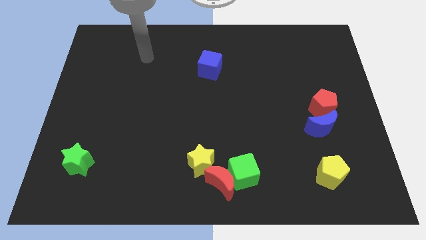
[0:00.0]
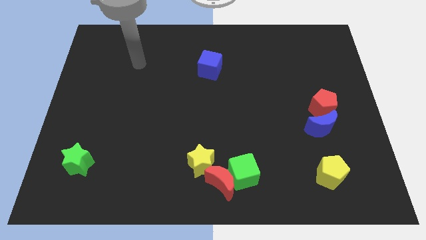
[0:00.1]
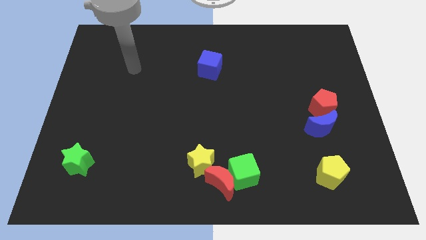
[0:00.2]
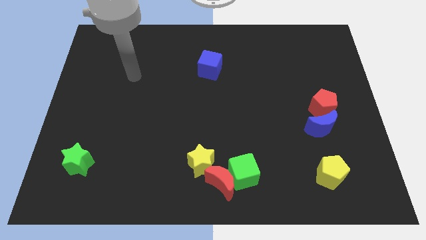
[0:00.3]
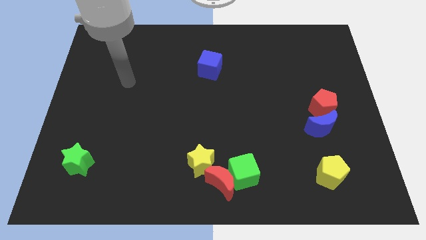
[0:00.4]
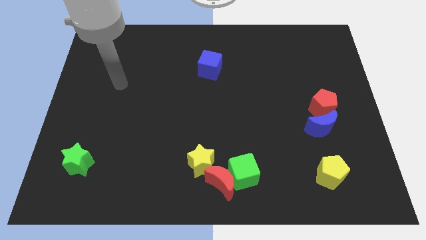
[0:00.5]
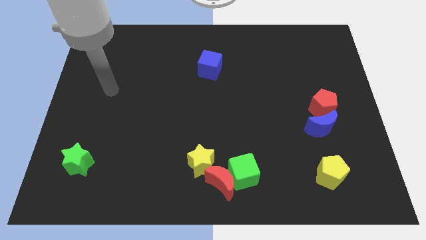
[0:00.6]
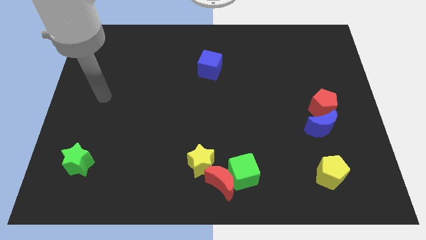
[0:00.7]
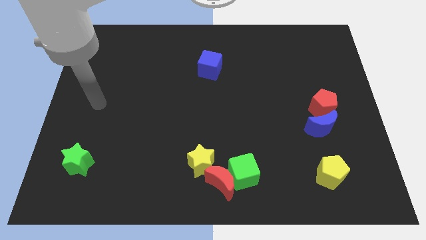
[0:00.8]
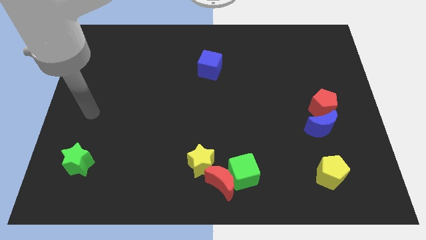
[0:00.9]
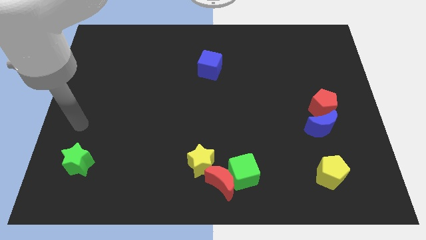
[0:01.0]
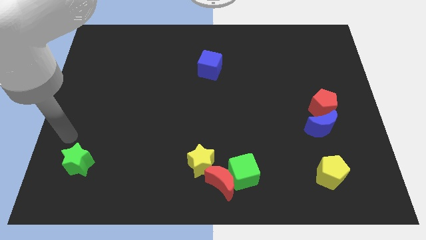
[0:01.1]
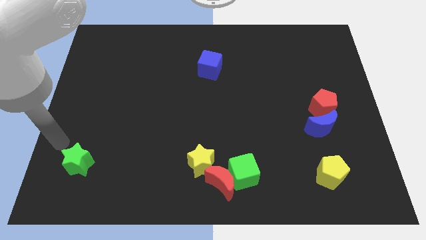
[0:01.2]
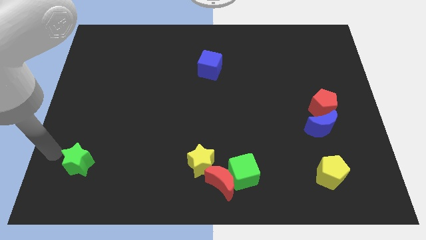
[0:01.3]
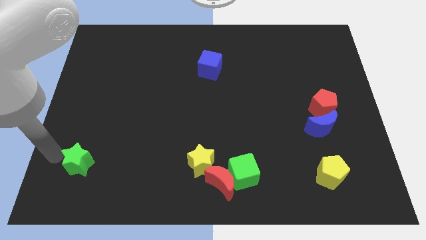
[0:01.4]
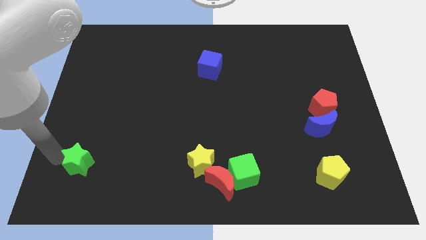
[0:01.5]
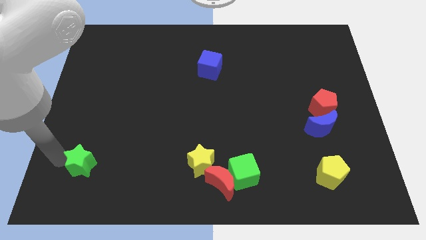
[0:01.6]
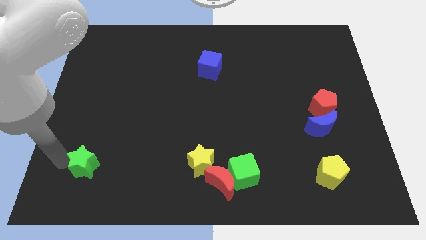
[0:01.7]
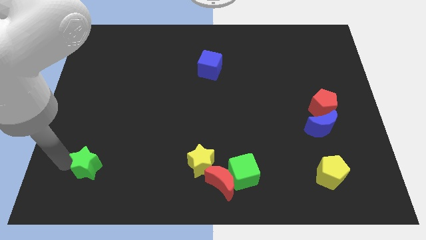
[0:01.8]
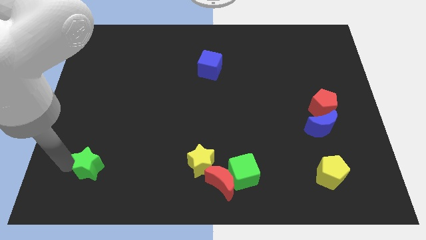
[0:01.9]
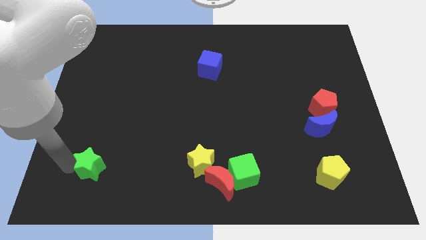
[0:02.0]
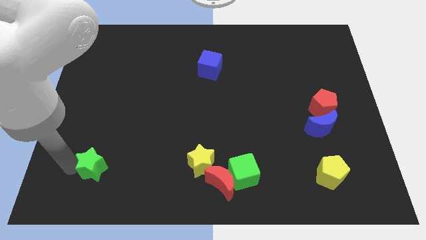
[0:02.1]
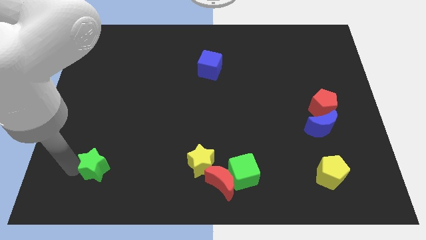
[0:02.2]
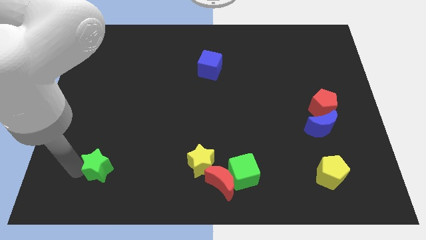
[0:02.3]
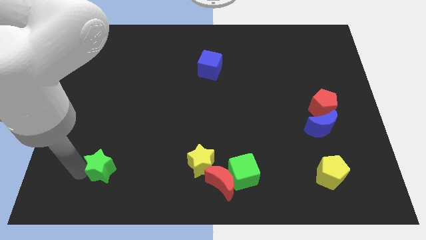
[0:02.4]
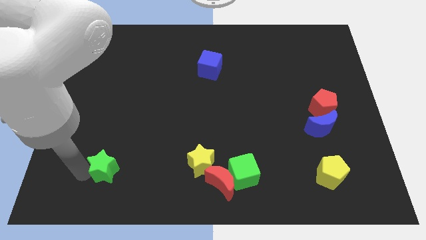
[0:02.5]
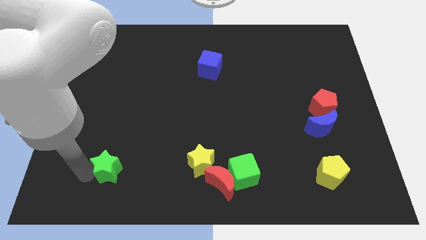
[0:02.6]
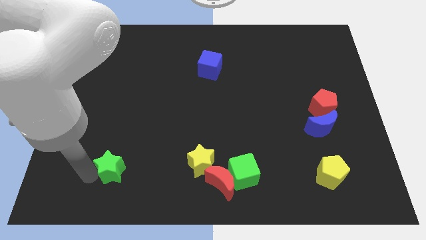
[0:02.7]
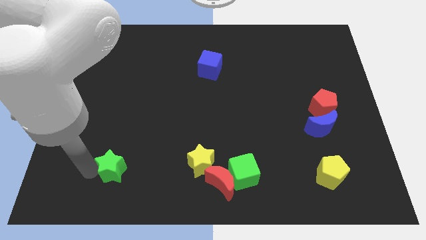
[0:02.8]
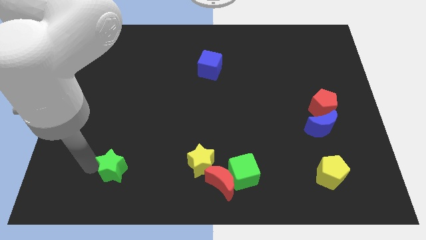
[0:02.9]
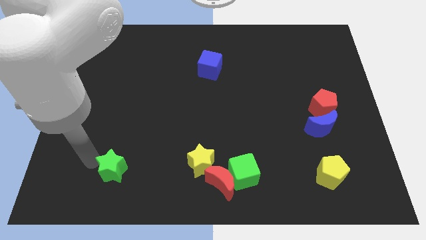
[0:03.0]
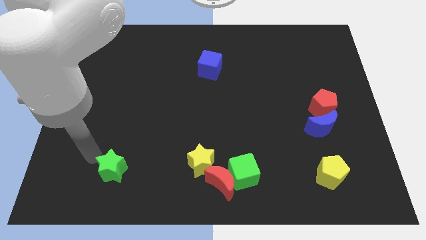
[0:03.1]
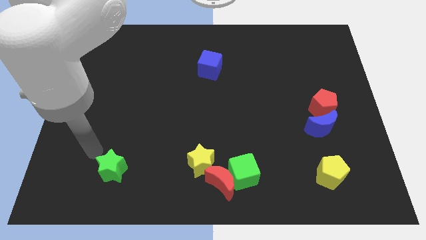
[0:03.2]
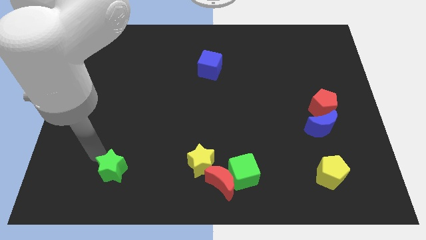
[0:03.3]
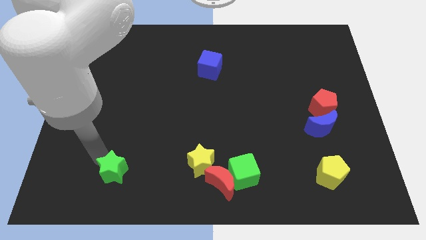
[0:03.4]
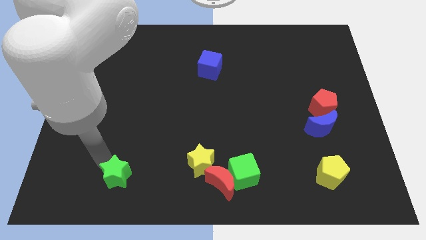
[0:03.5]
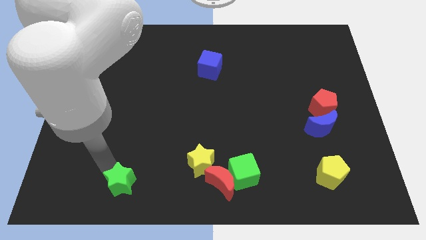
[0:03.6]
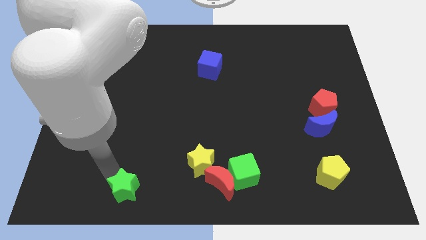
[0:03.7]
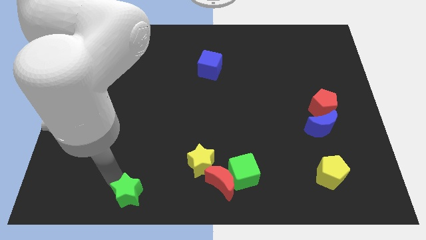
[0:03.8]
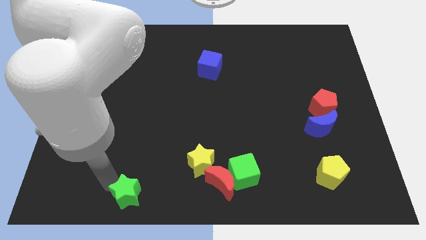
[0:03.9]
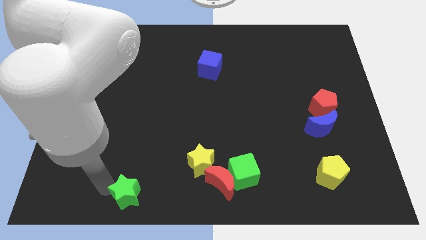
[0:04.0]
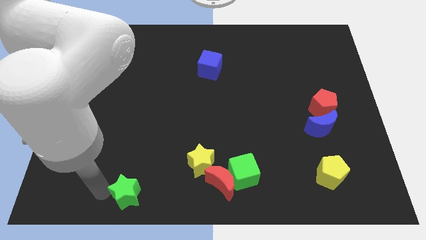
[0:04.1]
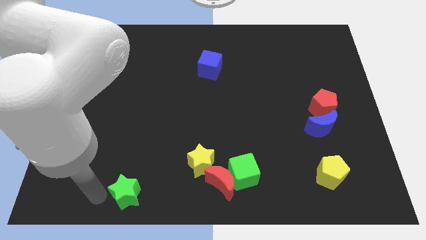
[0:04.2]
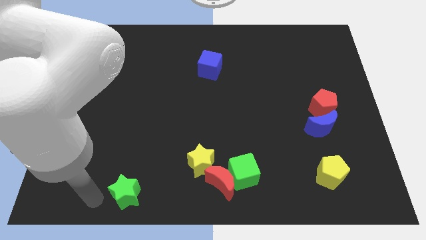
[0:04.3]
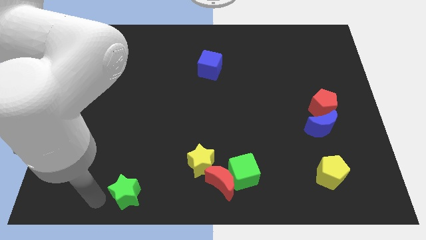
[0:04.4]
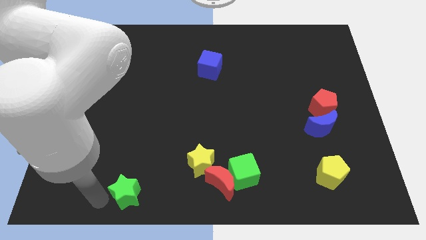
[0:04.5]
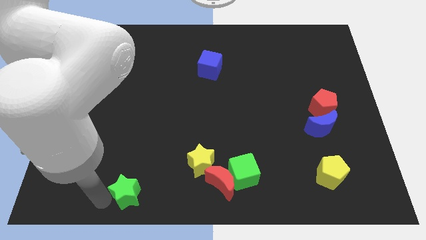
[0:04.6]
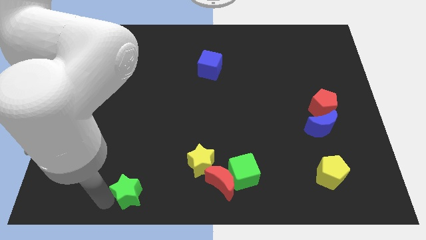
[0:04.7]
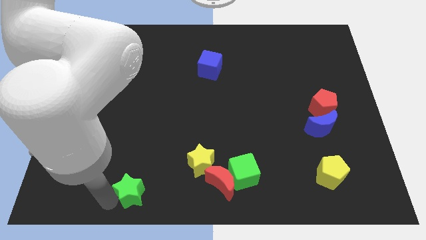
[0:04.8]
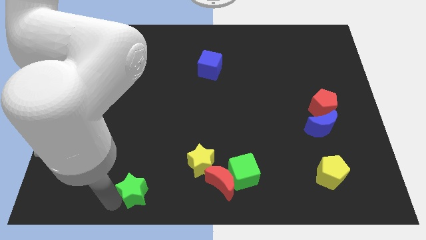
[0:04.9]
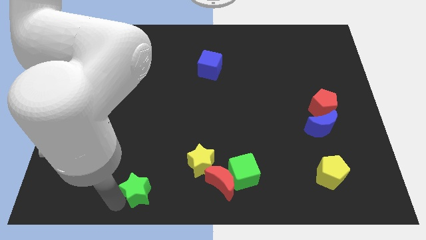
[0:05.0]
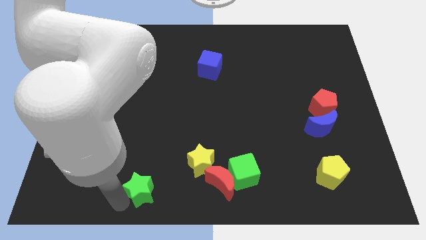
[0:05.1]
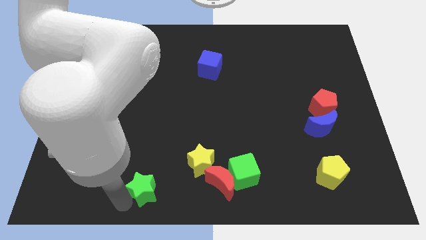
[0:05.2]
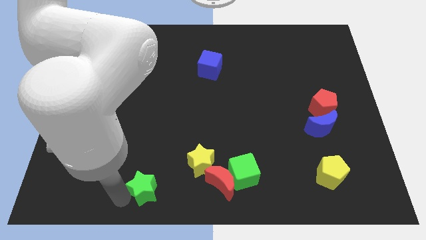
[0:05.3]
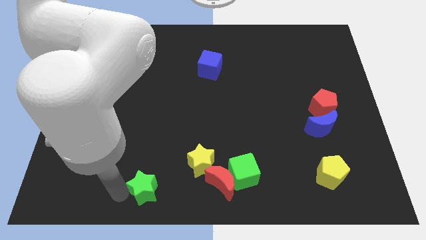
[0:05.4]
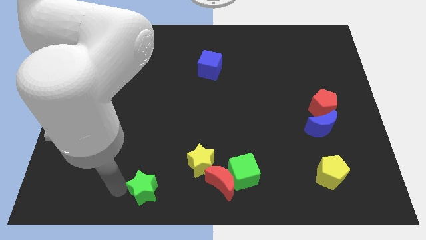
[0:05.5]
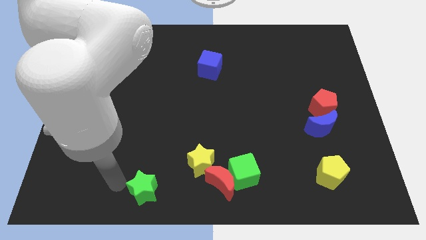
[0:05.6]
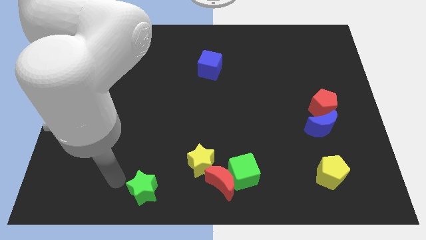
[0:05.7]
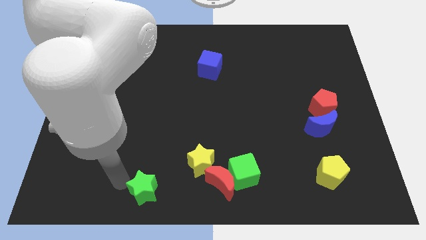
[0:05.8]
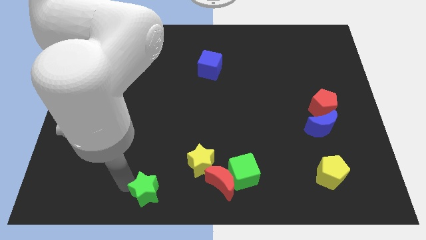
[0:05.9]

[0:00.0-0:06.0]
put the green star to the bottom side
